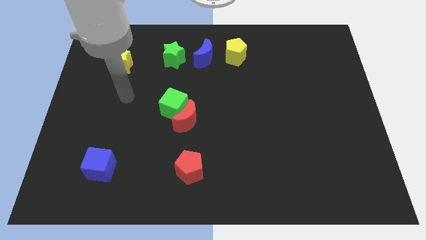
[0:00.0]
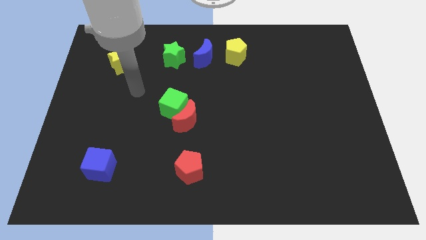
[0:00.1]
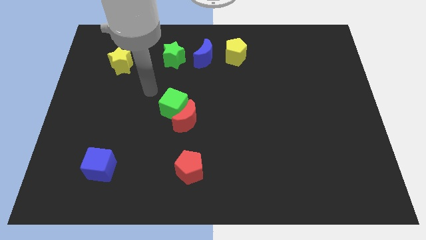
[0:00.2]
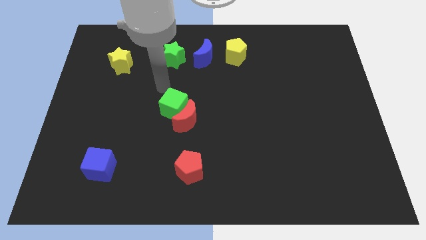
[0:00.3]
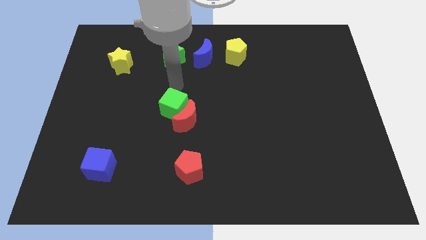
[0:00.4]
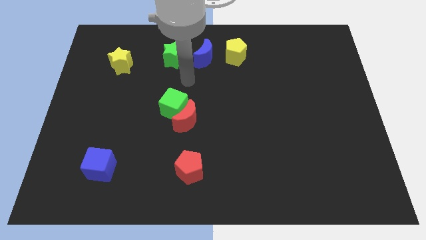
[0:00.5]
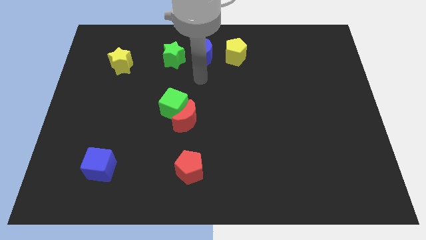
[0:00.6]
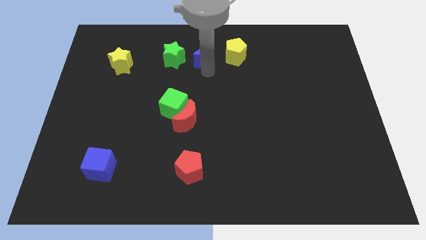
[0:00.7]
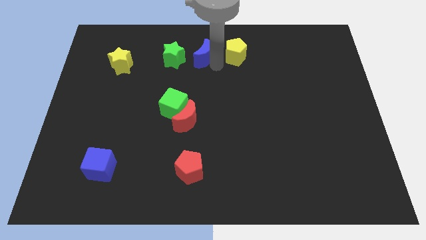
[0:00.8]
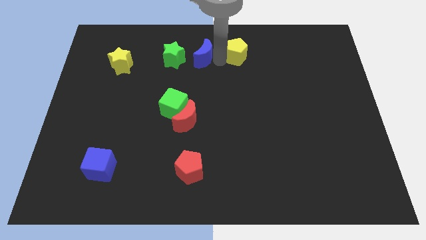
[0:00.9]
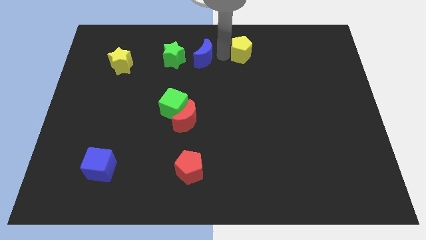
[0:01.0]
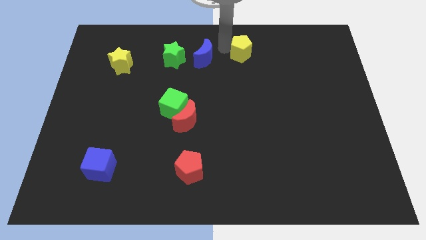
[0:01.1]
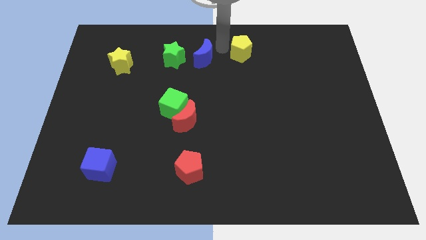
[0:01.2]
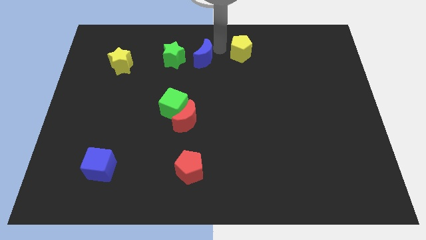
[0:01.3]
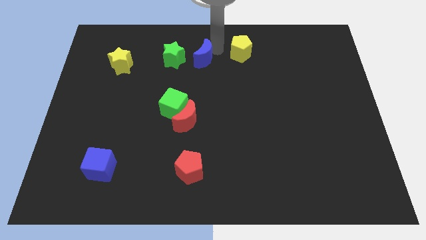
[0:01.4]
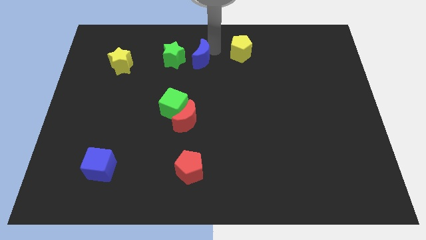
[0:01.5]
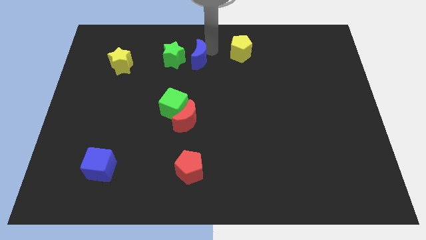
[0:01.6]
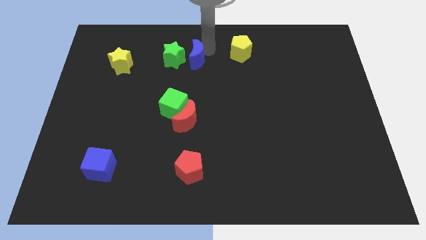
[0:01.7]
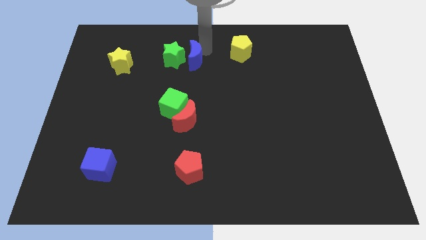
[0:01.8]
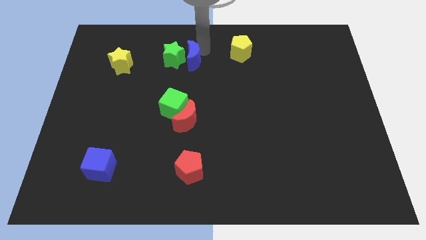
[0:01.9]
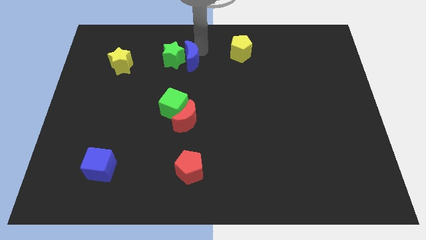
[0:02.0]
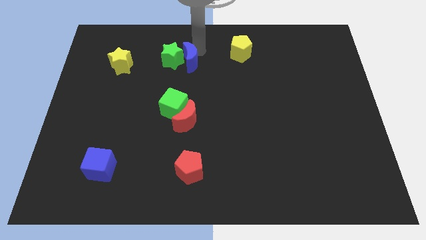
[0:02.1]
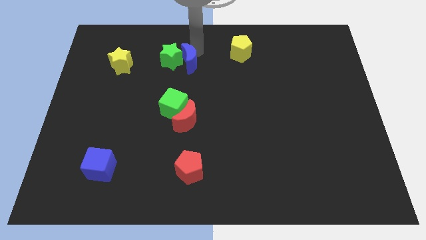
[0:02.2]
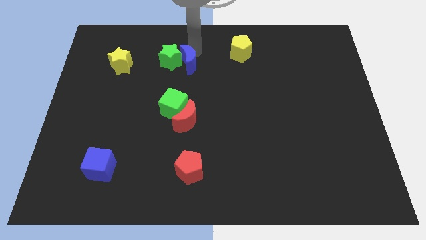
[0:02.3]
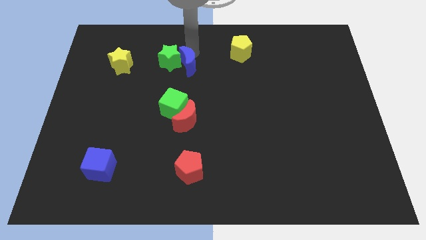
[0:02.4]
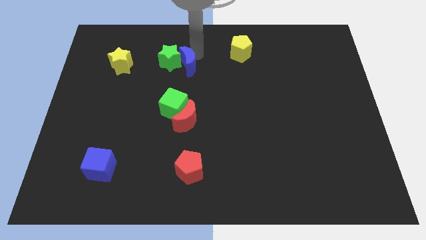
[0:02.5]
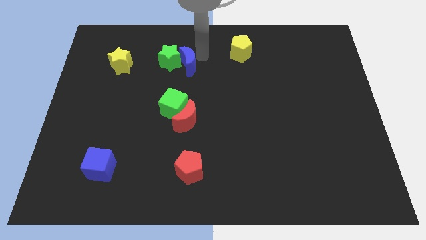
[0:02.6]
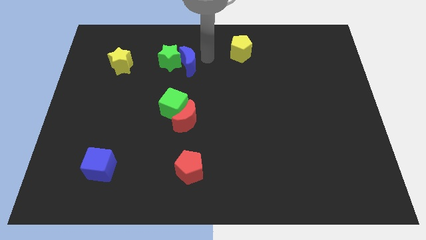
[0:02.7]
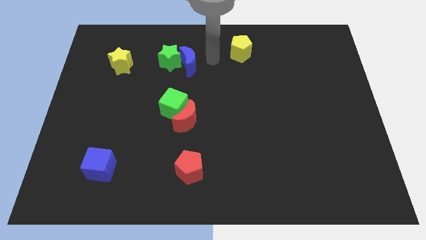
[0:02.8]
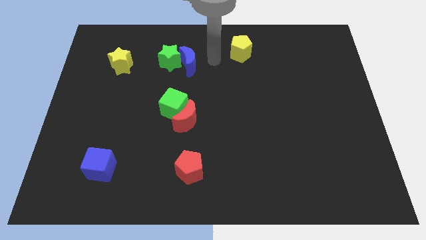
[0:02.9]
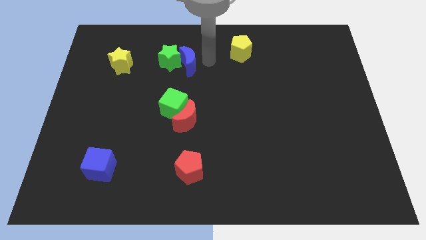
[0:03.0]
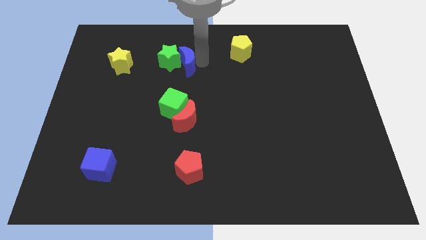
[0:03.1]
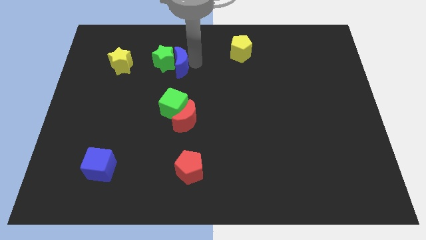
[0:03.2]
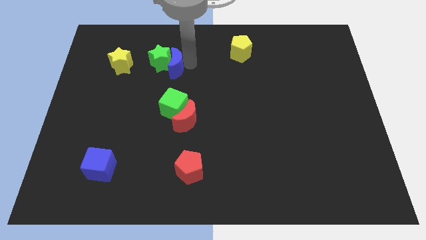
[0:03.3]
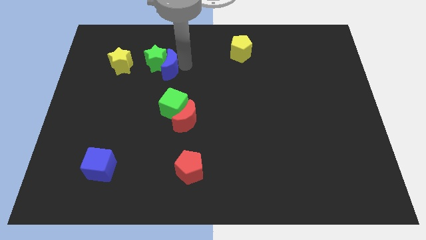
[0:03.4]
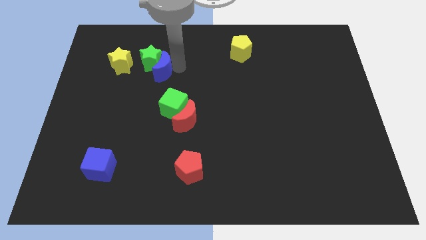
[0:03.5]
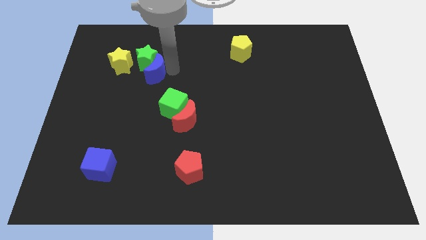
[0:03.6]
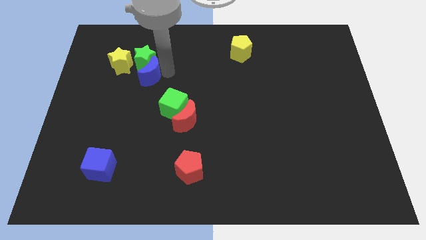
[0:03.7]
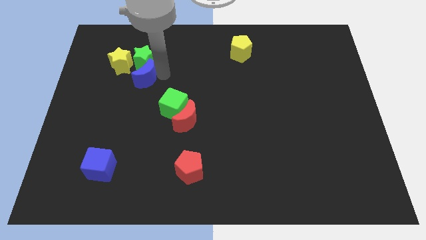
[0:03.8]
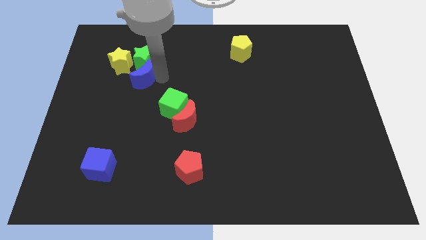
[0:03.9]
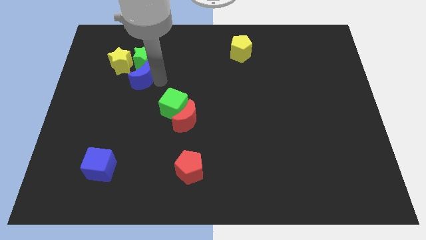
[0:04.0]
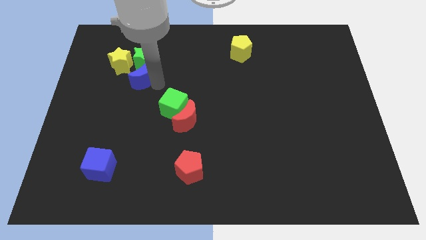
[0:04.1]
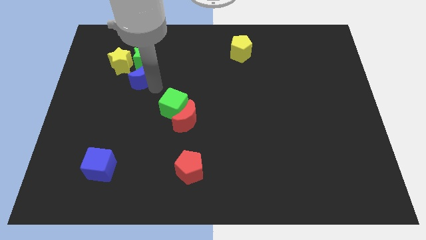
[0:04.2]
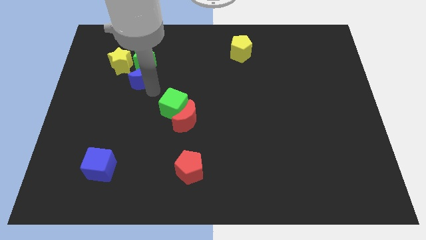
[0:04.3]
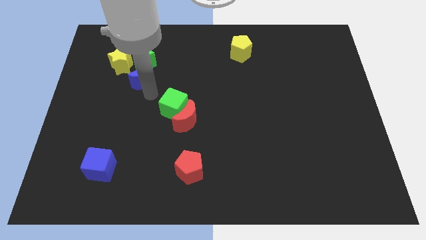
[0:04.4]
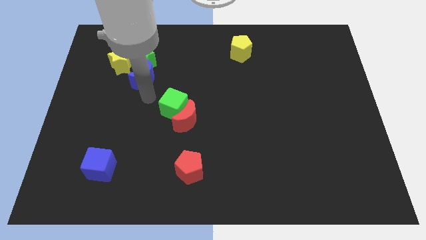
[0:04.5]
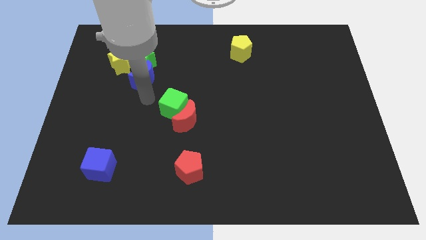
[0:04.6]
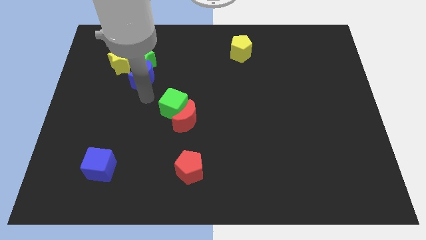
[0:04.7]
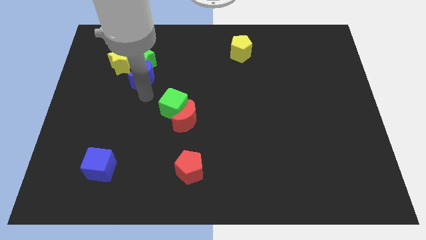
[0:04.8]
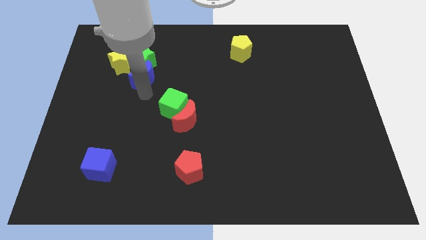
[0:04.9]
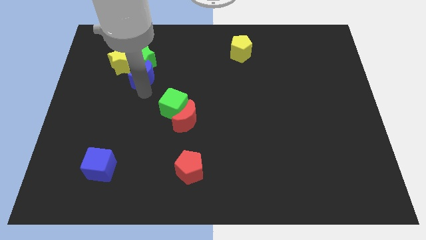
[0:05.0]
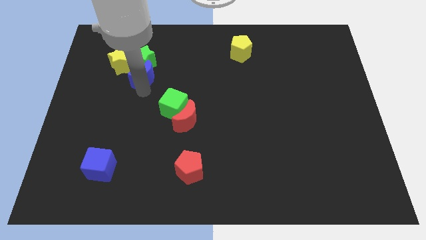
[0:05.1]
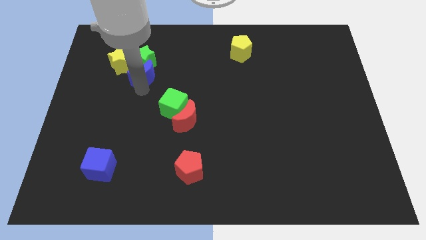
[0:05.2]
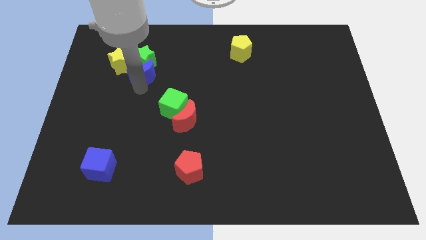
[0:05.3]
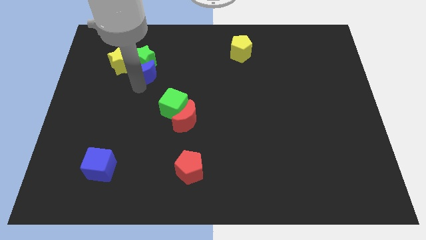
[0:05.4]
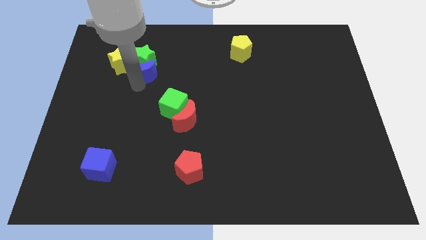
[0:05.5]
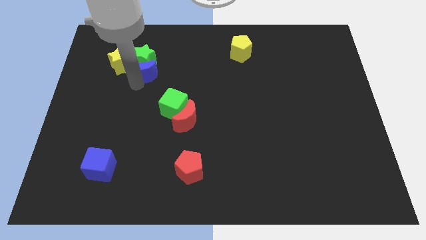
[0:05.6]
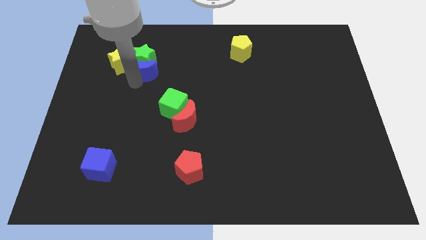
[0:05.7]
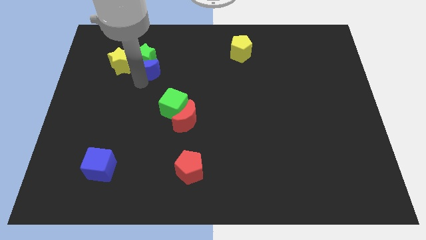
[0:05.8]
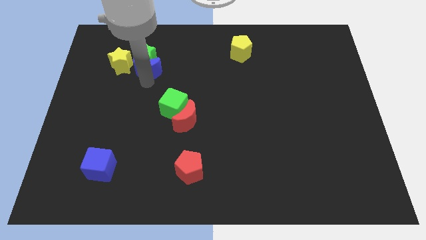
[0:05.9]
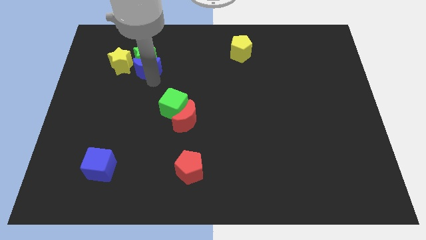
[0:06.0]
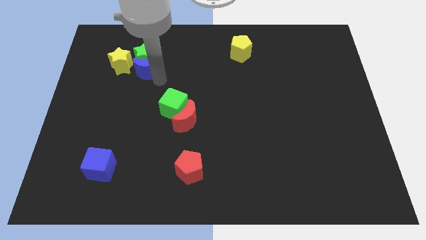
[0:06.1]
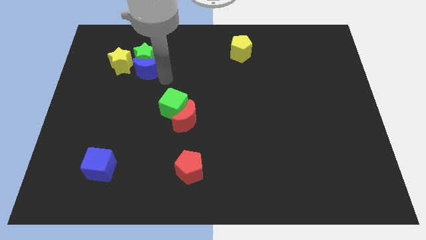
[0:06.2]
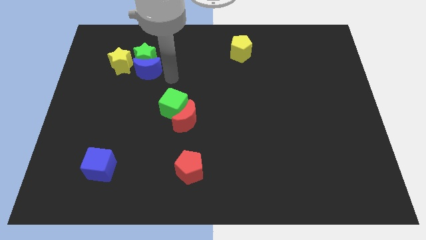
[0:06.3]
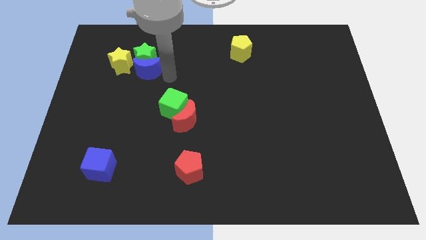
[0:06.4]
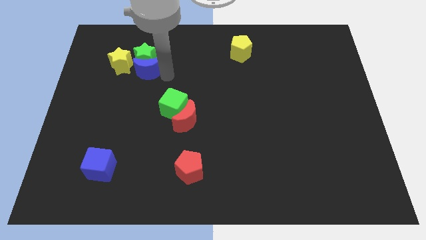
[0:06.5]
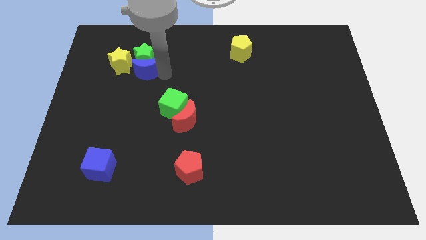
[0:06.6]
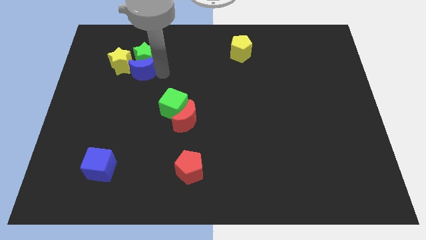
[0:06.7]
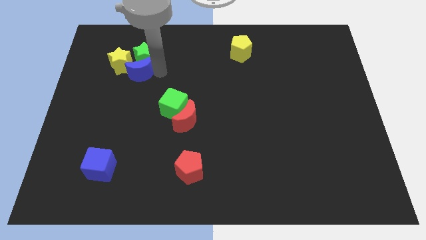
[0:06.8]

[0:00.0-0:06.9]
put the blue moon next to the yellow star
